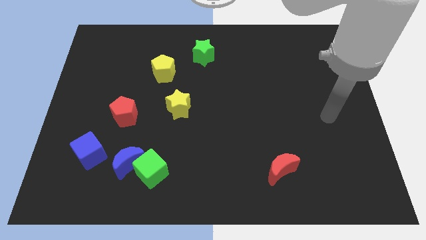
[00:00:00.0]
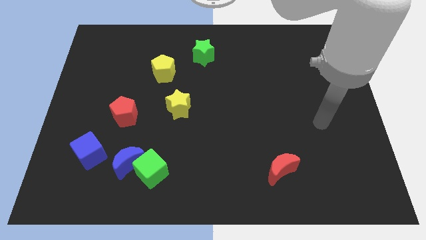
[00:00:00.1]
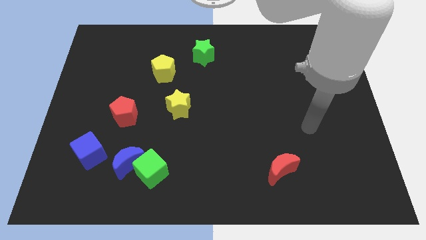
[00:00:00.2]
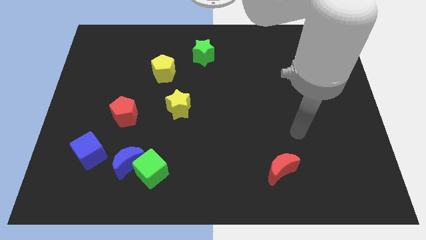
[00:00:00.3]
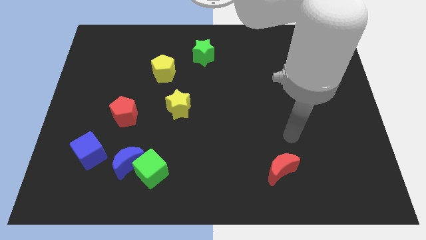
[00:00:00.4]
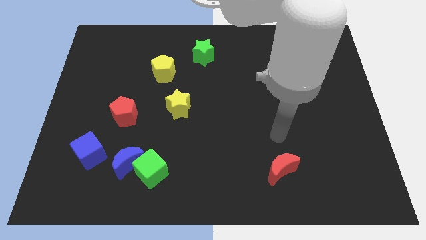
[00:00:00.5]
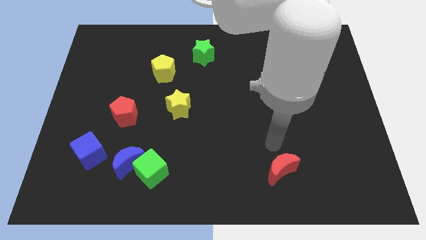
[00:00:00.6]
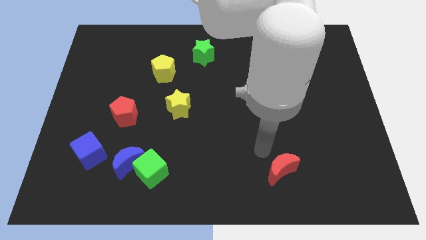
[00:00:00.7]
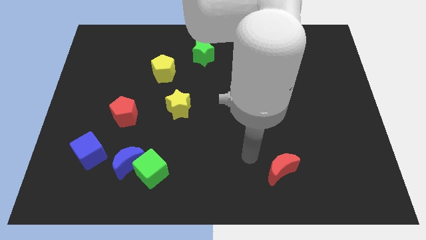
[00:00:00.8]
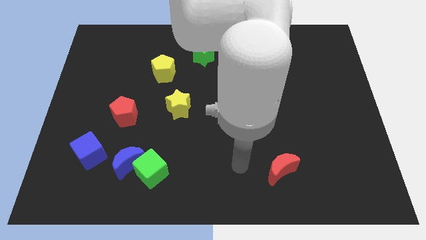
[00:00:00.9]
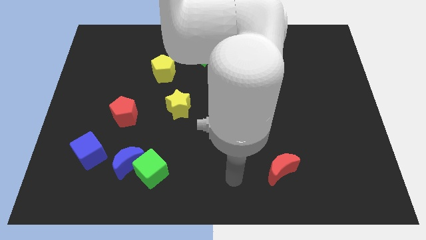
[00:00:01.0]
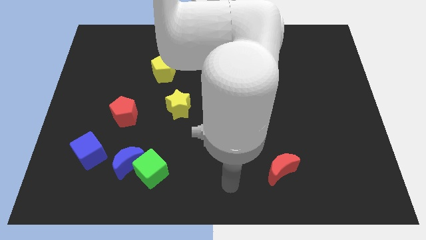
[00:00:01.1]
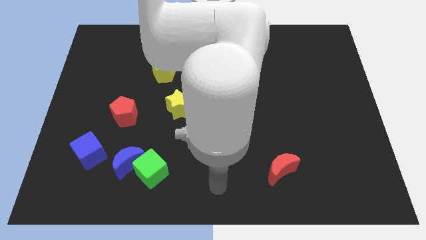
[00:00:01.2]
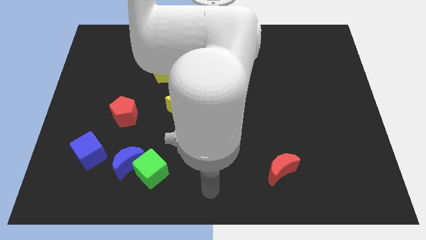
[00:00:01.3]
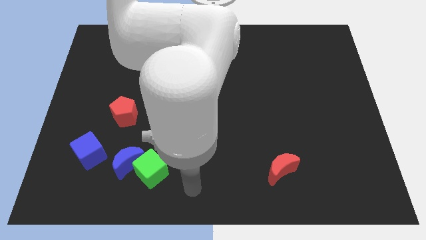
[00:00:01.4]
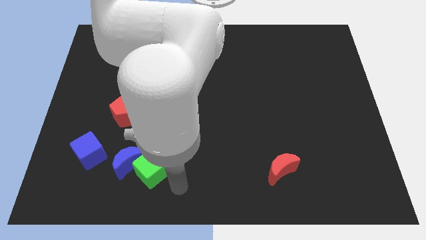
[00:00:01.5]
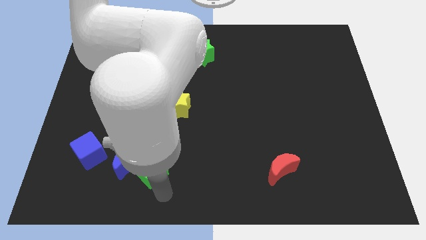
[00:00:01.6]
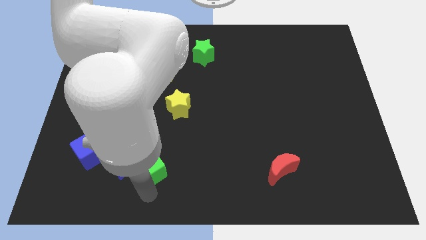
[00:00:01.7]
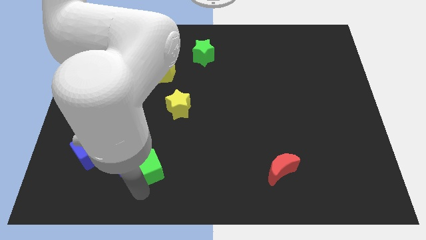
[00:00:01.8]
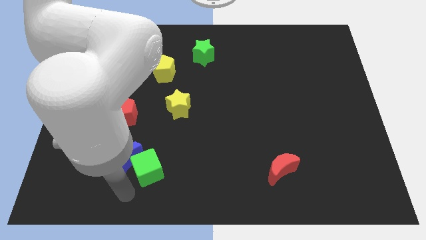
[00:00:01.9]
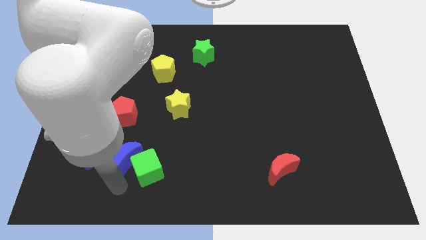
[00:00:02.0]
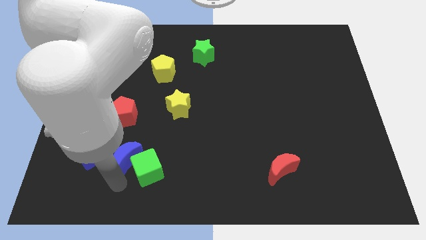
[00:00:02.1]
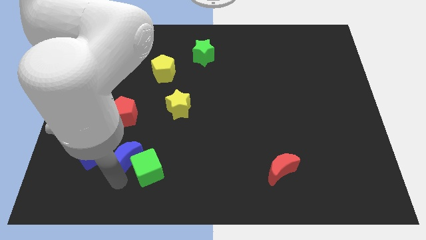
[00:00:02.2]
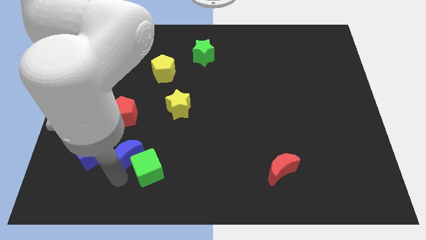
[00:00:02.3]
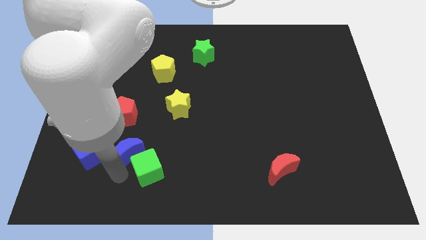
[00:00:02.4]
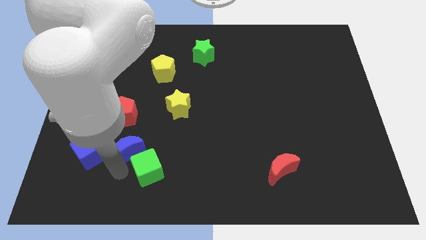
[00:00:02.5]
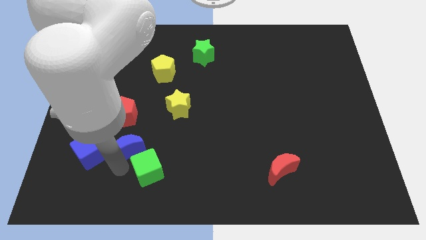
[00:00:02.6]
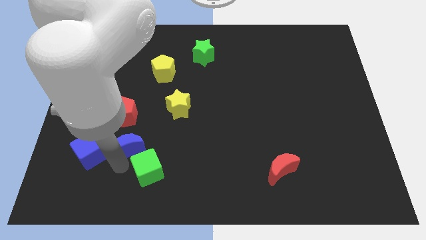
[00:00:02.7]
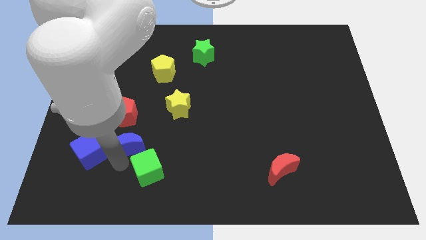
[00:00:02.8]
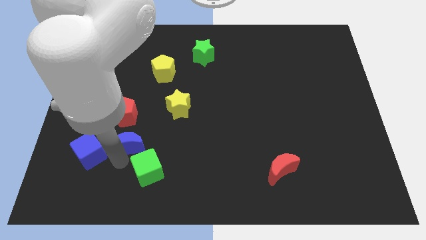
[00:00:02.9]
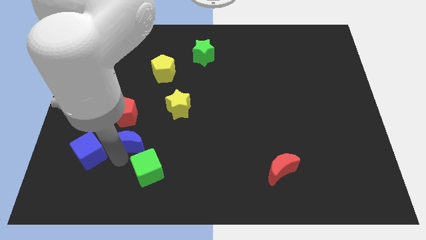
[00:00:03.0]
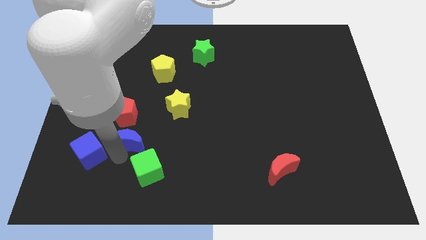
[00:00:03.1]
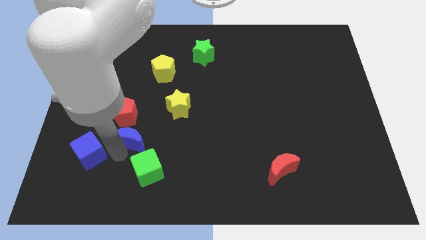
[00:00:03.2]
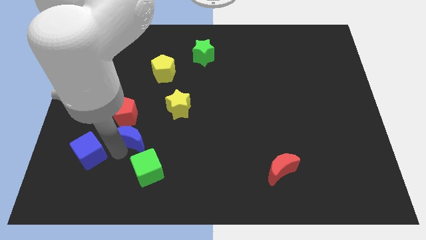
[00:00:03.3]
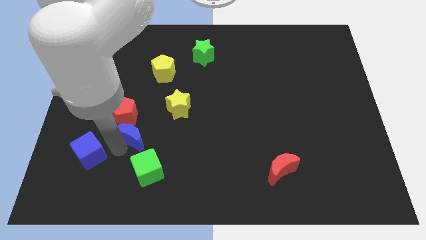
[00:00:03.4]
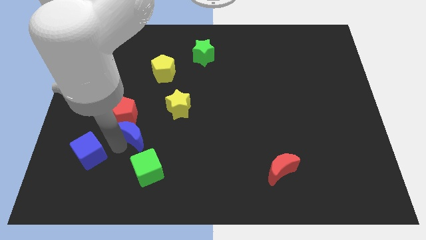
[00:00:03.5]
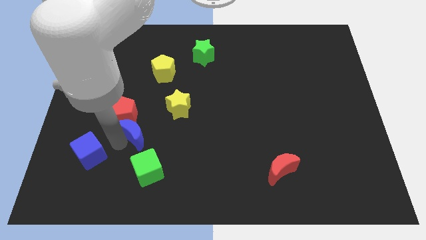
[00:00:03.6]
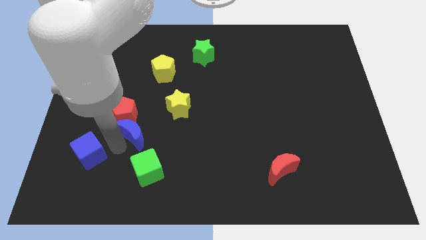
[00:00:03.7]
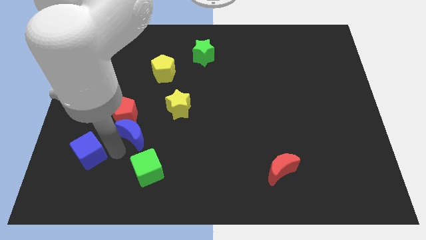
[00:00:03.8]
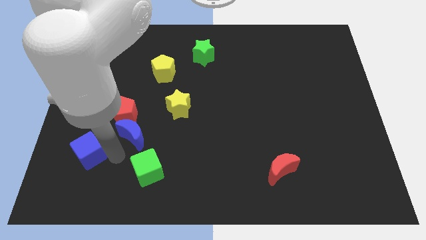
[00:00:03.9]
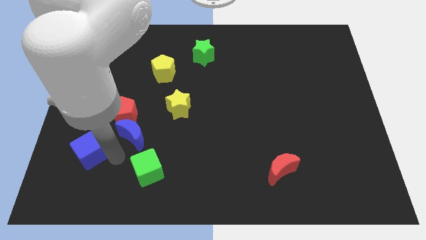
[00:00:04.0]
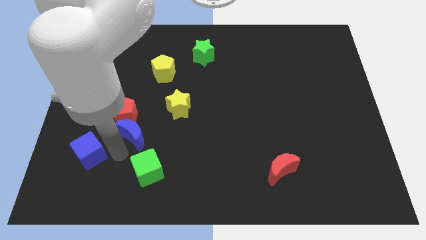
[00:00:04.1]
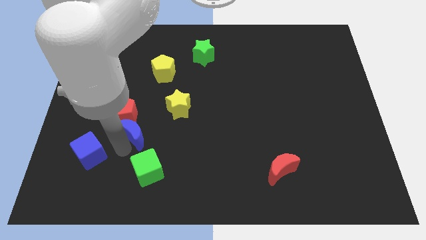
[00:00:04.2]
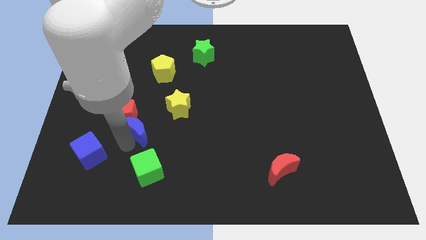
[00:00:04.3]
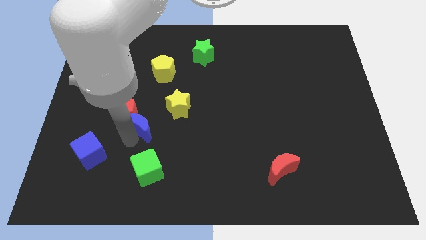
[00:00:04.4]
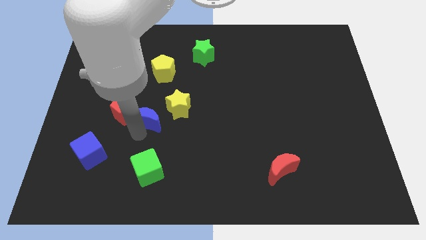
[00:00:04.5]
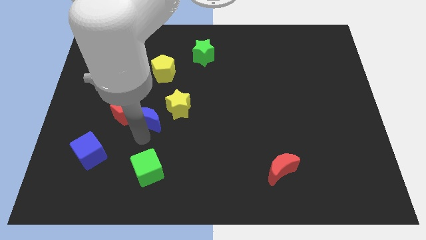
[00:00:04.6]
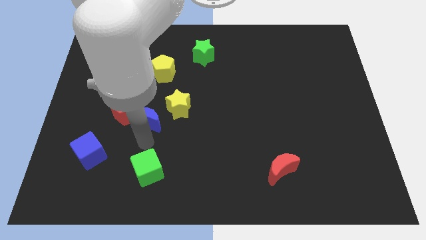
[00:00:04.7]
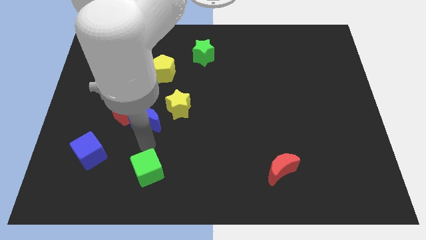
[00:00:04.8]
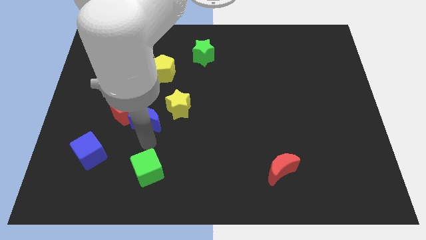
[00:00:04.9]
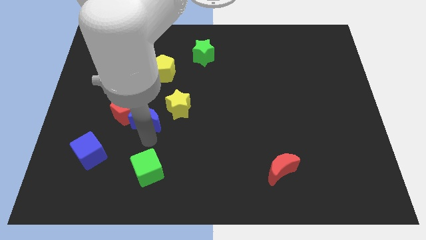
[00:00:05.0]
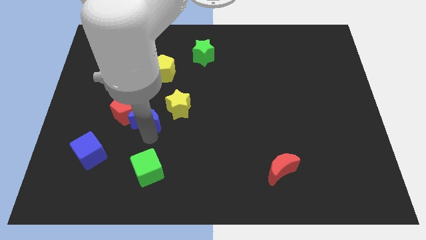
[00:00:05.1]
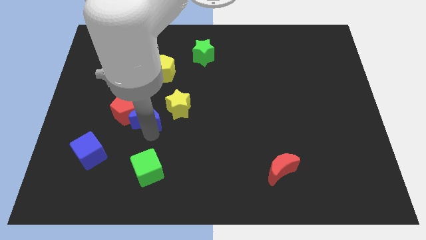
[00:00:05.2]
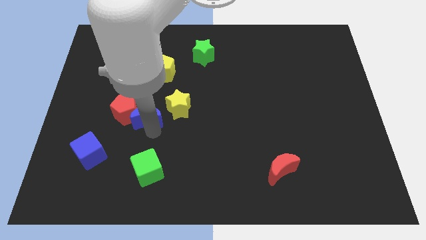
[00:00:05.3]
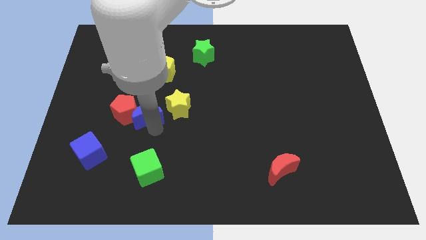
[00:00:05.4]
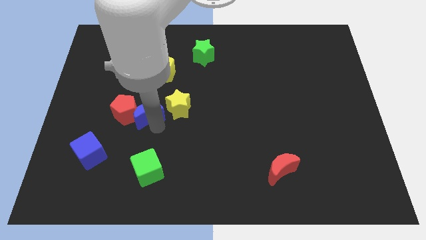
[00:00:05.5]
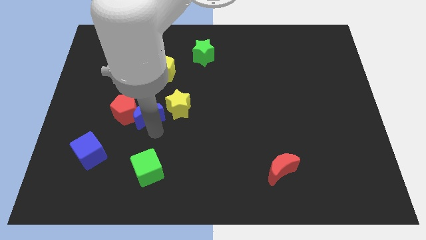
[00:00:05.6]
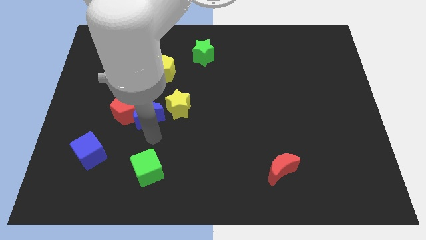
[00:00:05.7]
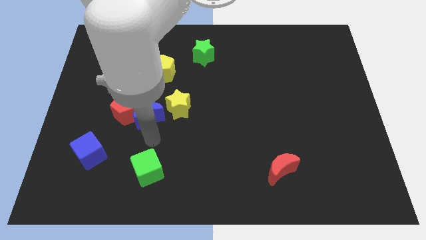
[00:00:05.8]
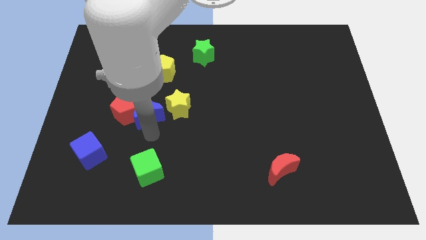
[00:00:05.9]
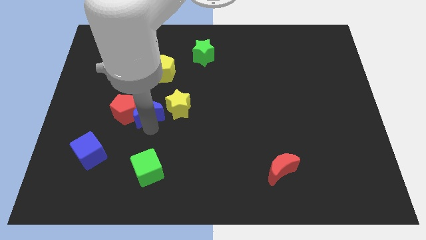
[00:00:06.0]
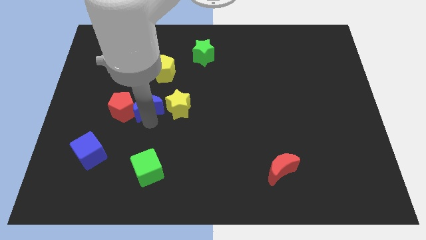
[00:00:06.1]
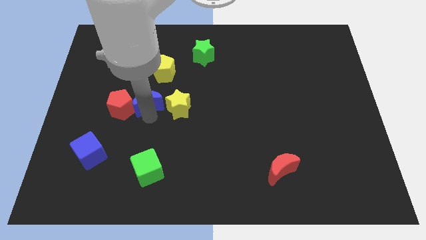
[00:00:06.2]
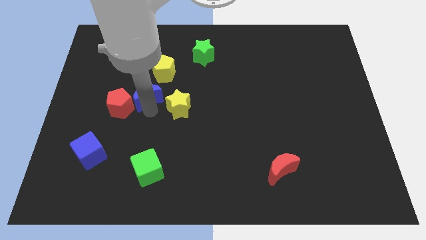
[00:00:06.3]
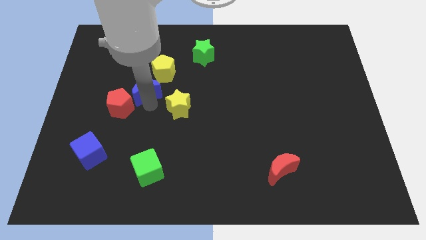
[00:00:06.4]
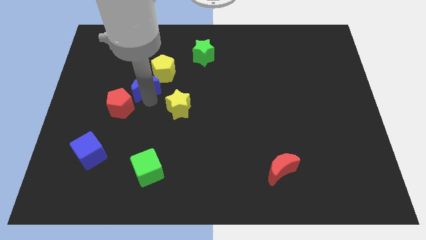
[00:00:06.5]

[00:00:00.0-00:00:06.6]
push the blue moon up

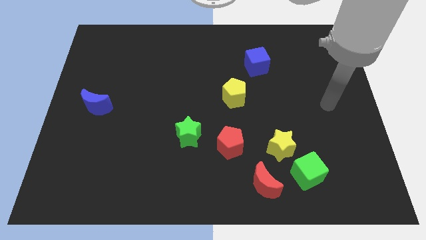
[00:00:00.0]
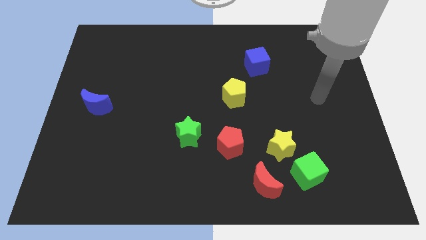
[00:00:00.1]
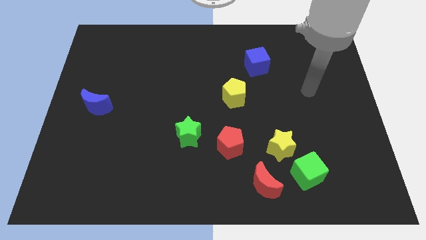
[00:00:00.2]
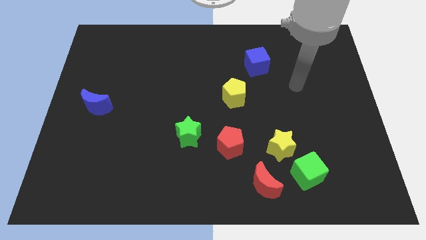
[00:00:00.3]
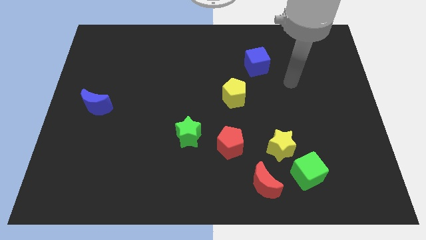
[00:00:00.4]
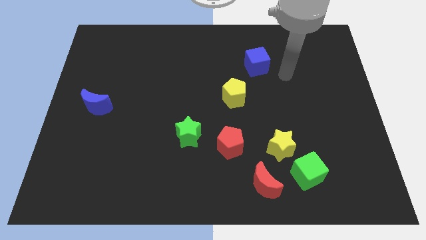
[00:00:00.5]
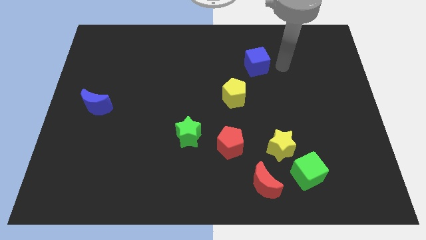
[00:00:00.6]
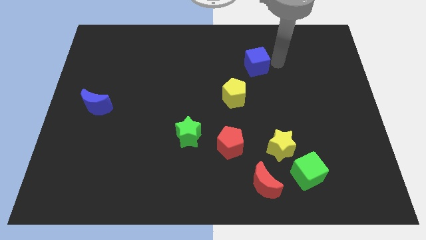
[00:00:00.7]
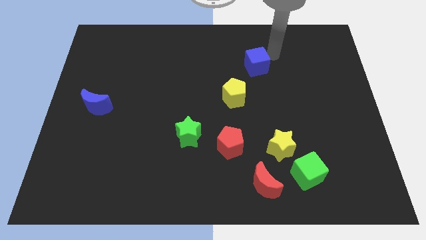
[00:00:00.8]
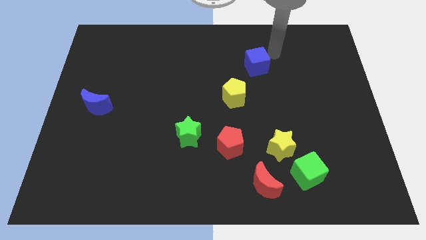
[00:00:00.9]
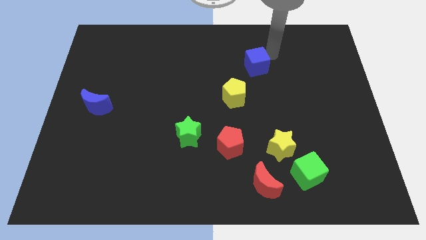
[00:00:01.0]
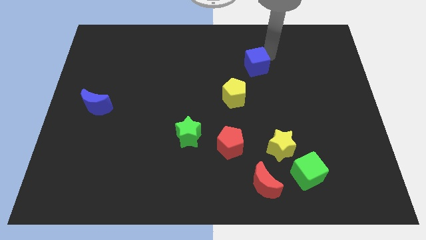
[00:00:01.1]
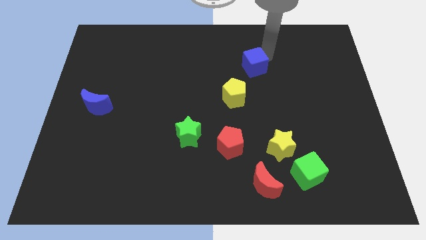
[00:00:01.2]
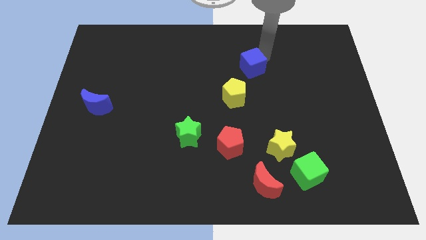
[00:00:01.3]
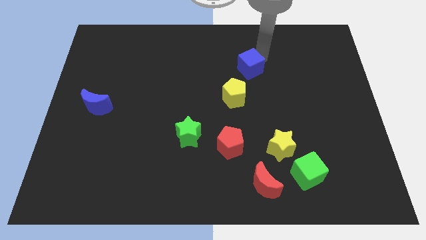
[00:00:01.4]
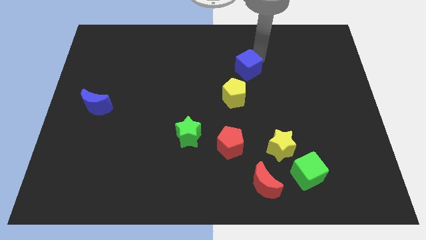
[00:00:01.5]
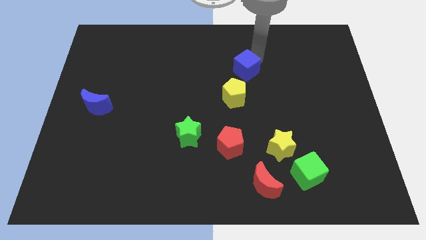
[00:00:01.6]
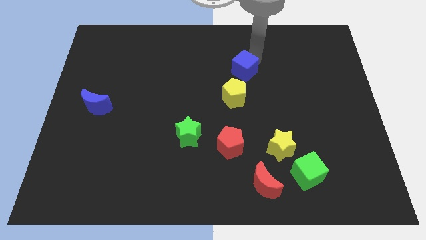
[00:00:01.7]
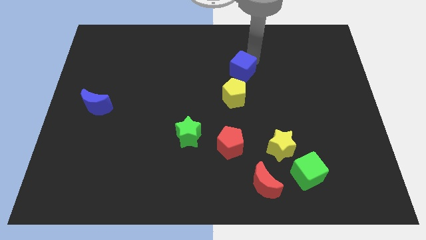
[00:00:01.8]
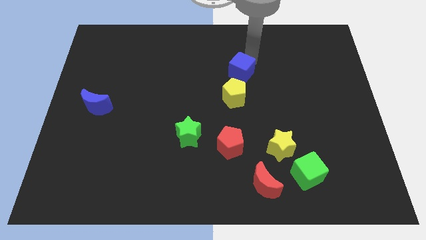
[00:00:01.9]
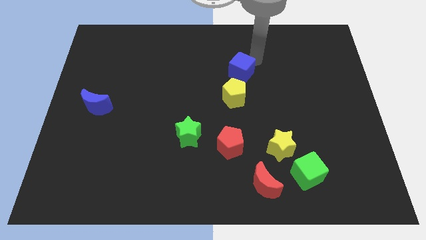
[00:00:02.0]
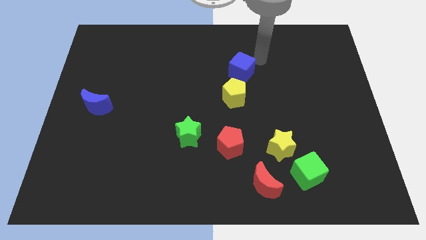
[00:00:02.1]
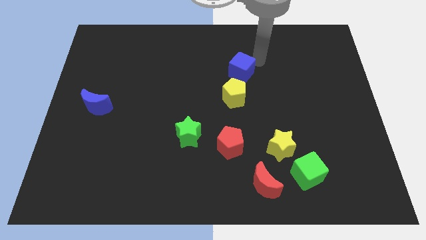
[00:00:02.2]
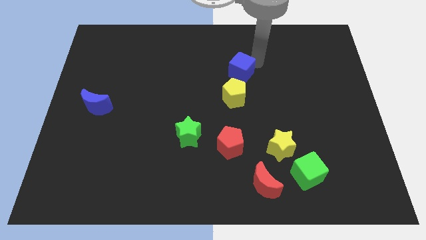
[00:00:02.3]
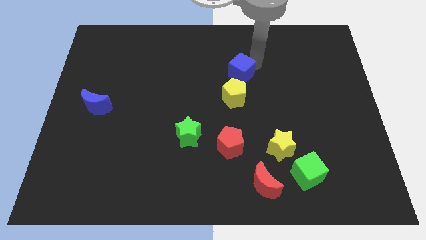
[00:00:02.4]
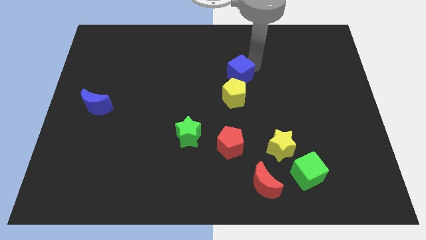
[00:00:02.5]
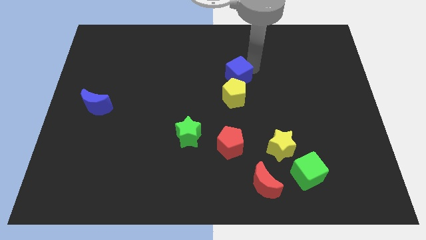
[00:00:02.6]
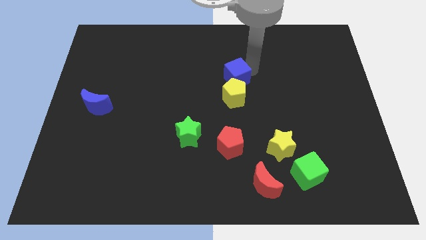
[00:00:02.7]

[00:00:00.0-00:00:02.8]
slightly slide the blue cube down and to the left
